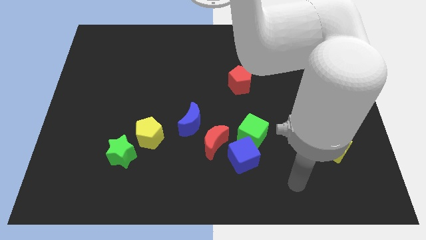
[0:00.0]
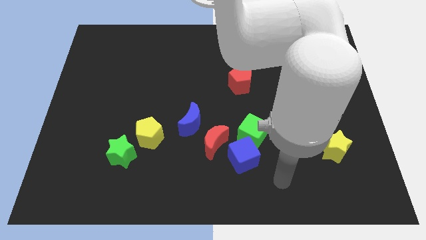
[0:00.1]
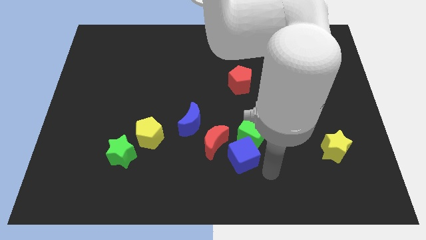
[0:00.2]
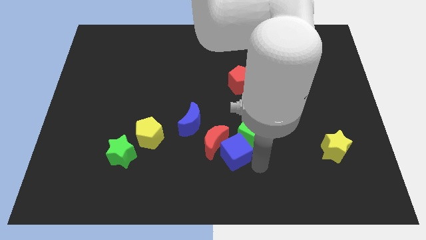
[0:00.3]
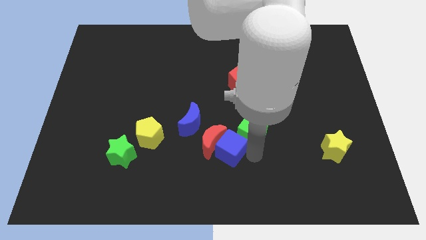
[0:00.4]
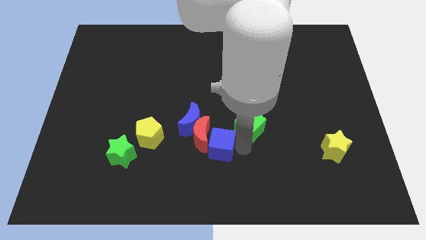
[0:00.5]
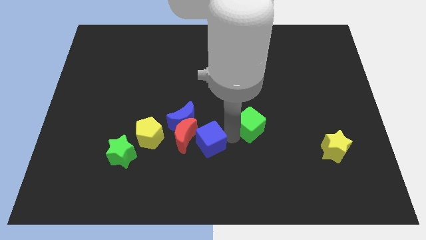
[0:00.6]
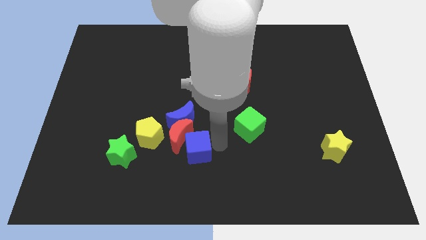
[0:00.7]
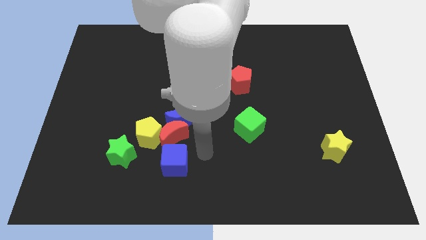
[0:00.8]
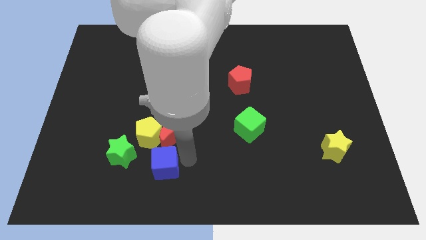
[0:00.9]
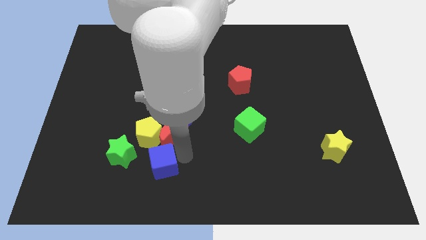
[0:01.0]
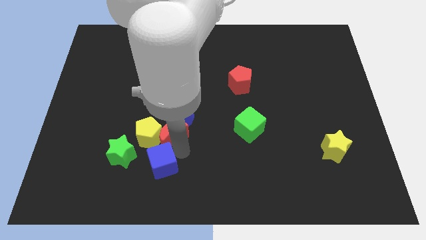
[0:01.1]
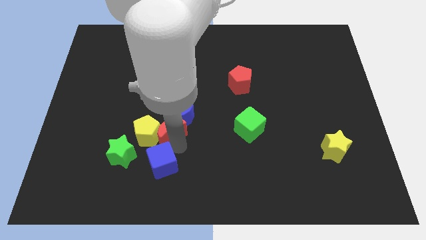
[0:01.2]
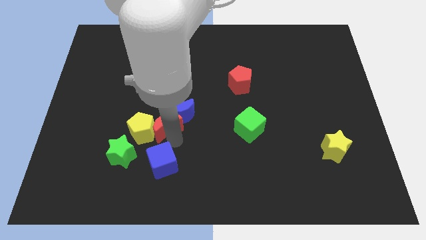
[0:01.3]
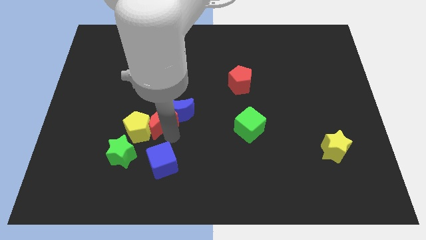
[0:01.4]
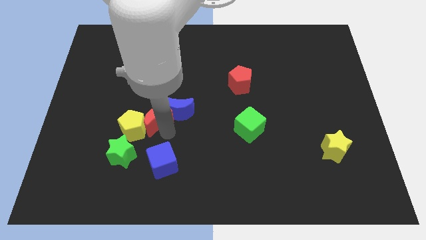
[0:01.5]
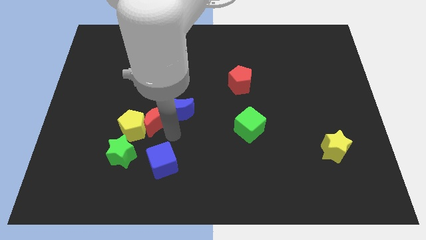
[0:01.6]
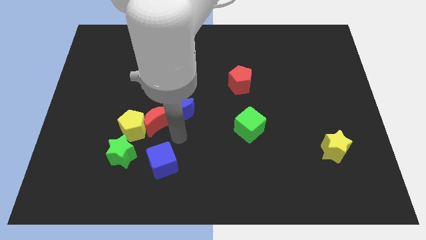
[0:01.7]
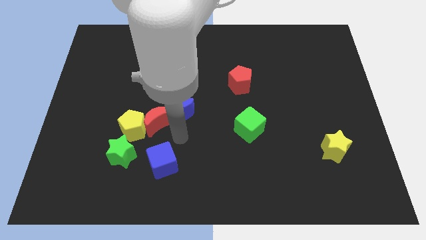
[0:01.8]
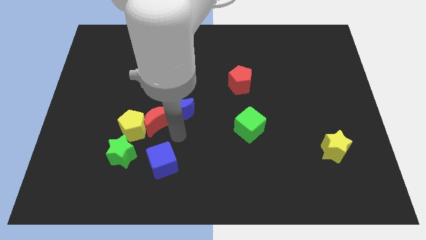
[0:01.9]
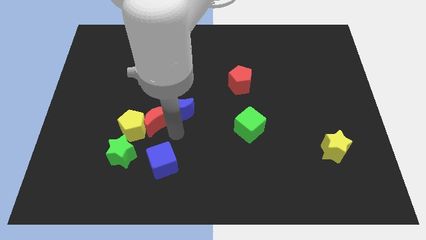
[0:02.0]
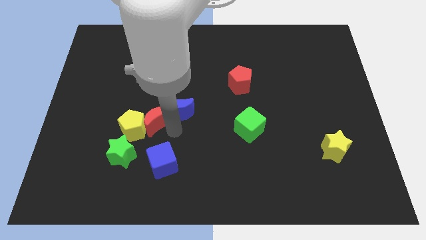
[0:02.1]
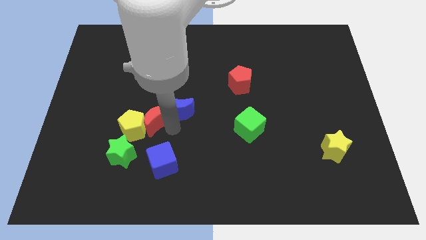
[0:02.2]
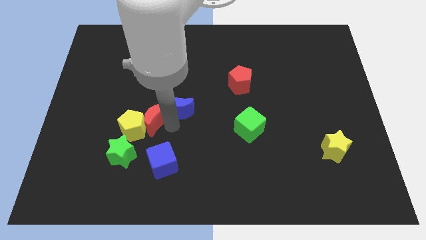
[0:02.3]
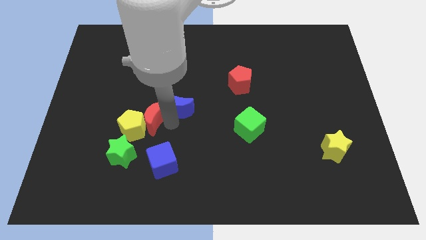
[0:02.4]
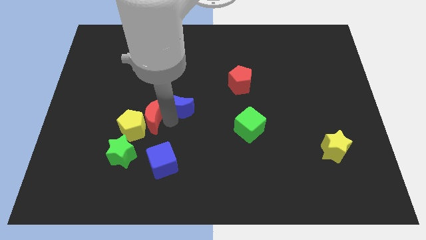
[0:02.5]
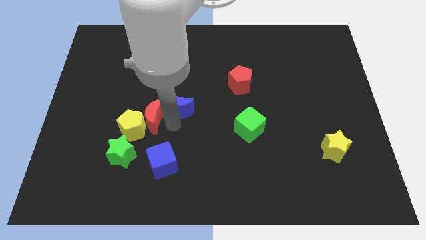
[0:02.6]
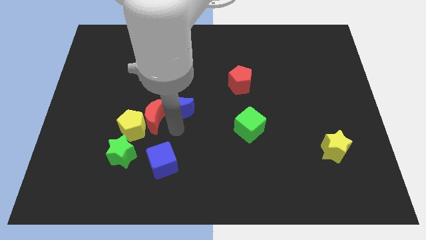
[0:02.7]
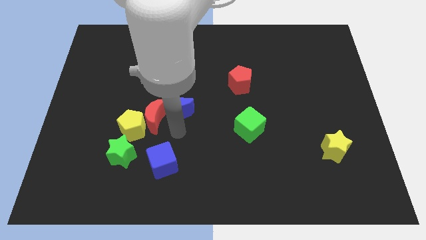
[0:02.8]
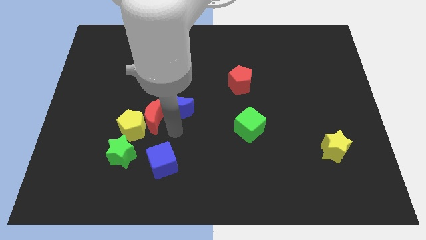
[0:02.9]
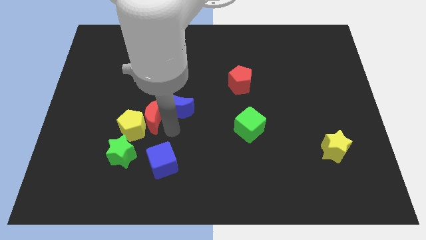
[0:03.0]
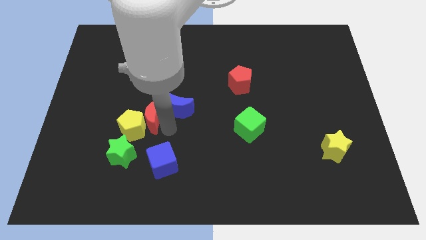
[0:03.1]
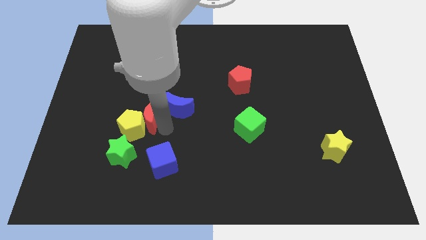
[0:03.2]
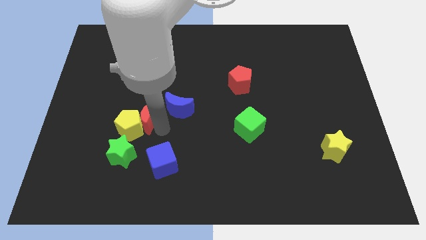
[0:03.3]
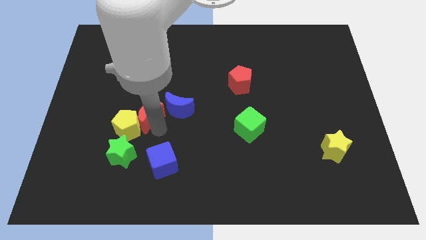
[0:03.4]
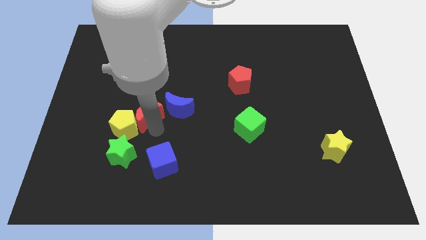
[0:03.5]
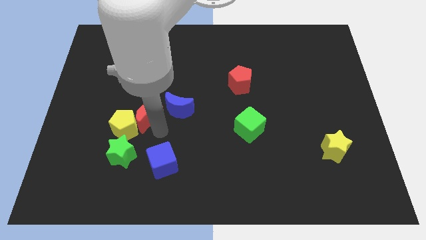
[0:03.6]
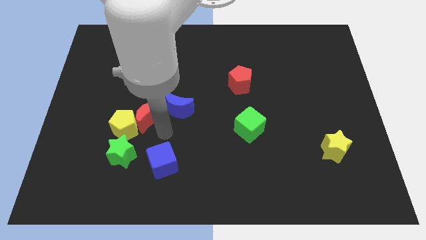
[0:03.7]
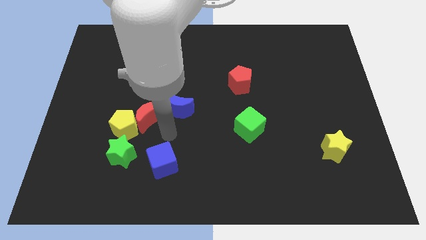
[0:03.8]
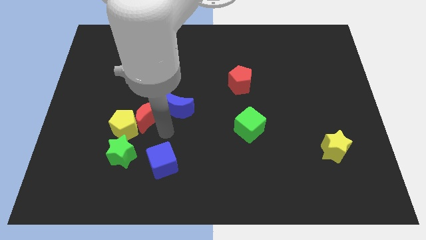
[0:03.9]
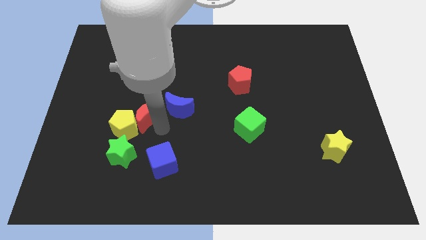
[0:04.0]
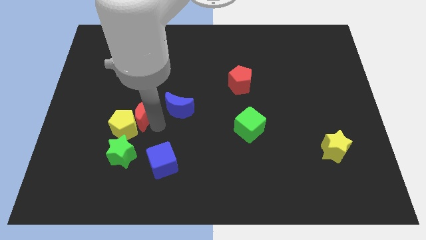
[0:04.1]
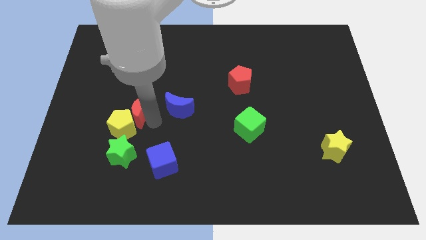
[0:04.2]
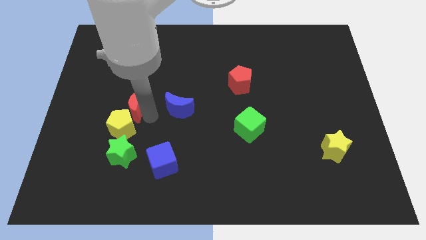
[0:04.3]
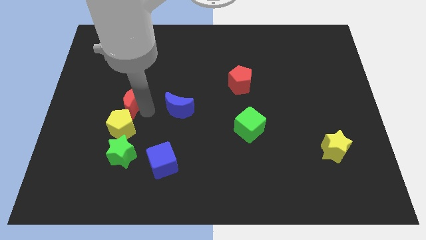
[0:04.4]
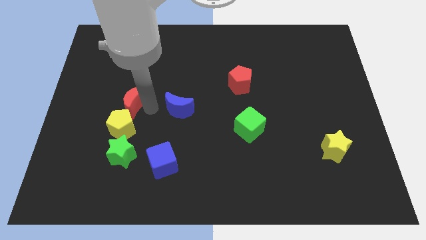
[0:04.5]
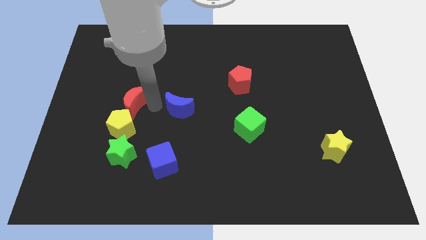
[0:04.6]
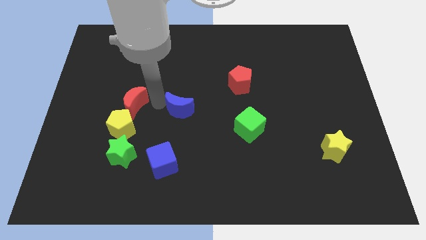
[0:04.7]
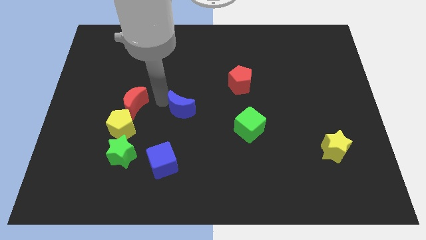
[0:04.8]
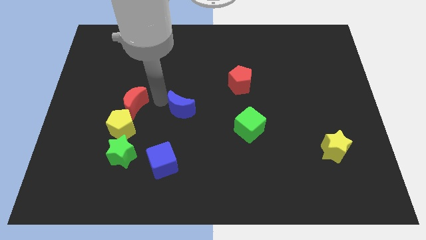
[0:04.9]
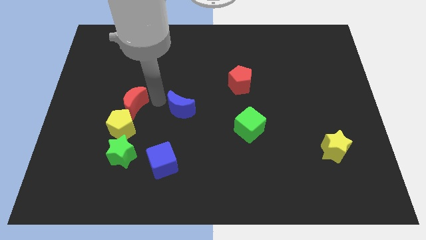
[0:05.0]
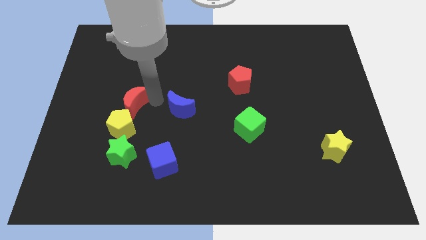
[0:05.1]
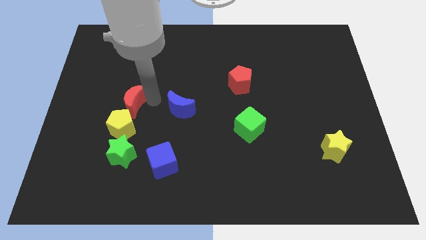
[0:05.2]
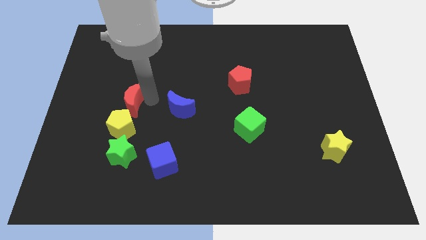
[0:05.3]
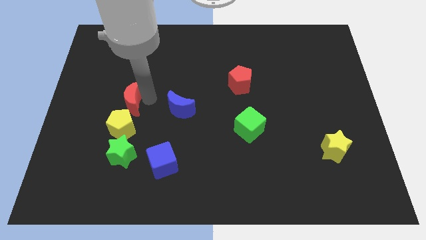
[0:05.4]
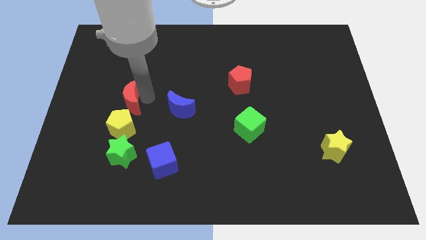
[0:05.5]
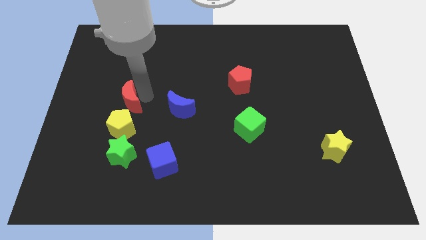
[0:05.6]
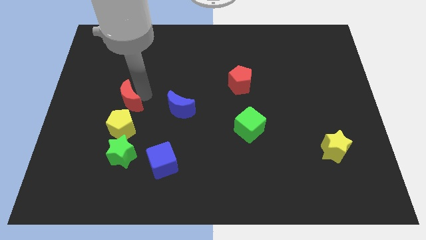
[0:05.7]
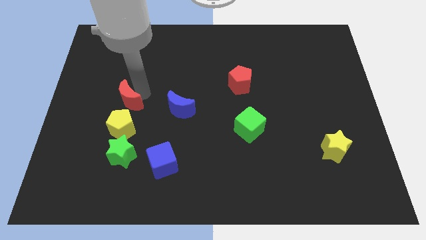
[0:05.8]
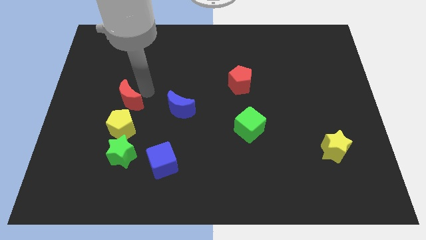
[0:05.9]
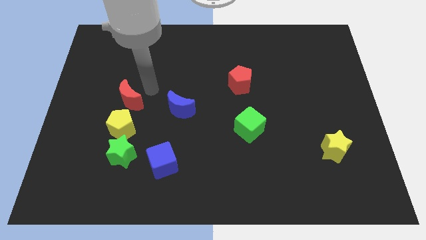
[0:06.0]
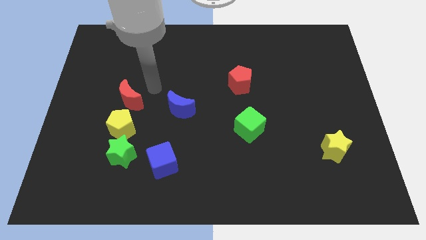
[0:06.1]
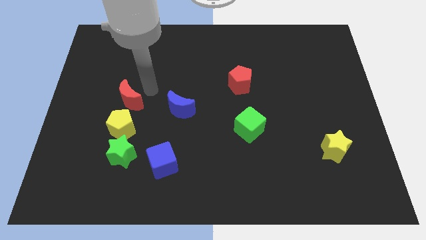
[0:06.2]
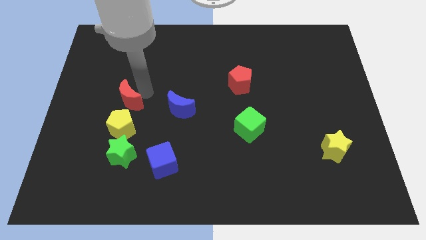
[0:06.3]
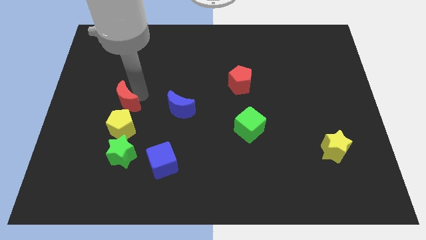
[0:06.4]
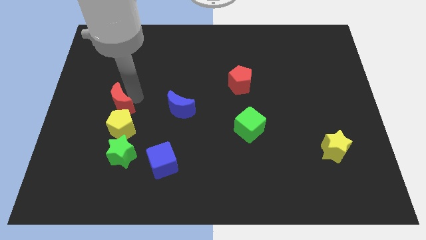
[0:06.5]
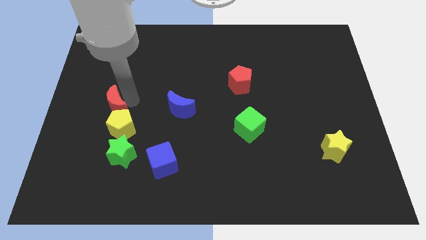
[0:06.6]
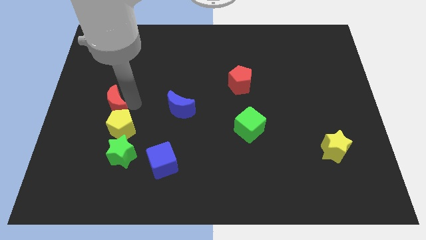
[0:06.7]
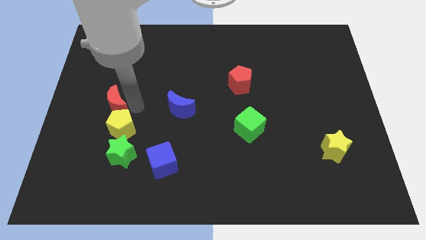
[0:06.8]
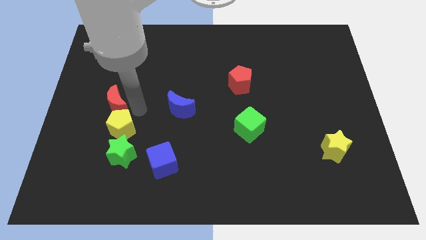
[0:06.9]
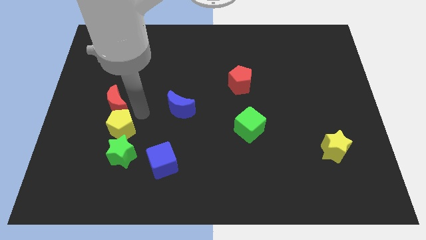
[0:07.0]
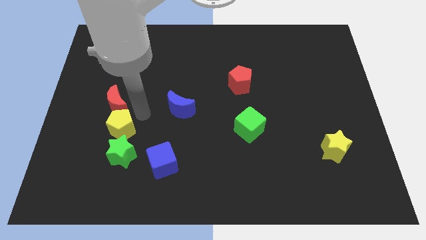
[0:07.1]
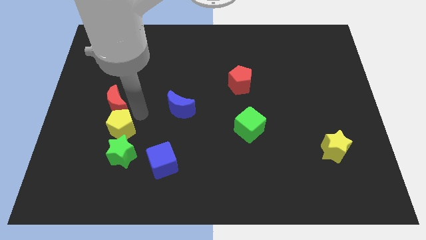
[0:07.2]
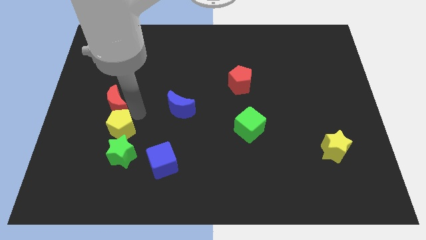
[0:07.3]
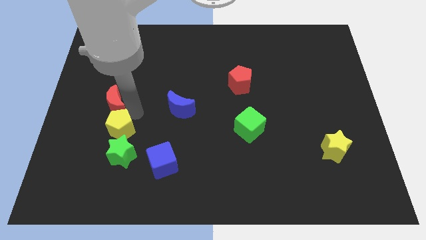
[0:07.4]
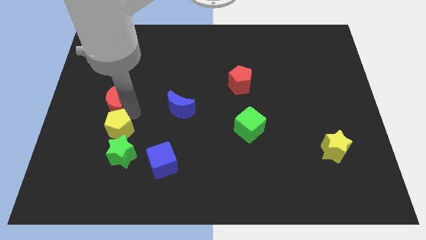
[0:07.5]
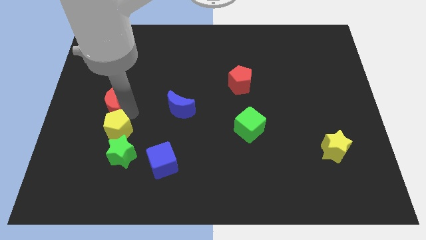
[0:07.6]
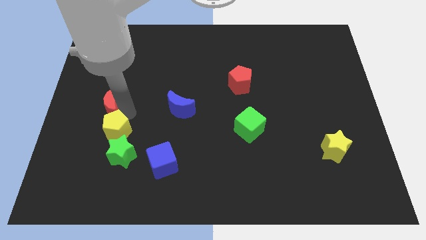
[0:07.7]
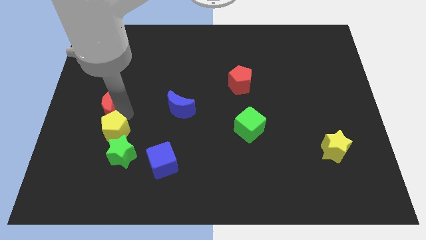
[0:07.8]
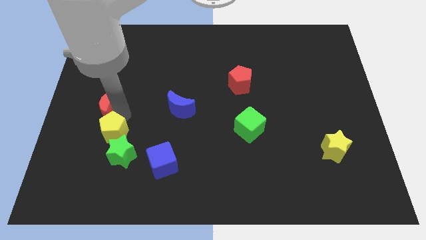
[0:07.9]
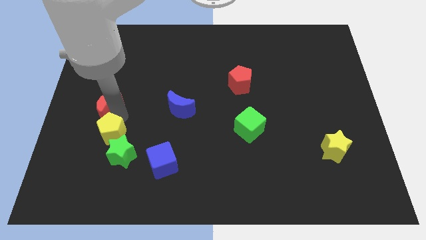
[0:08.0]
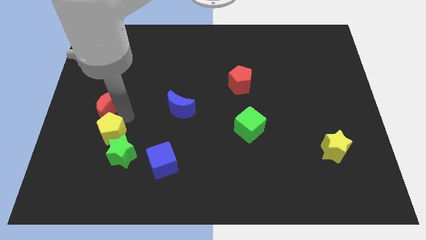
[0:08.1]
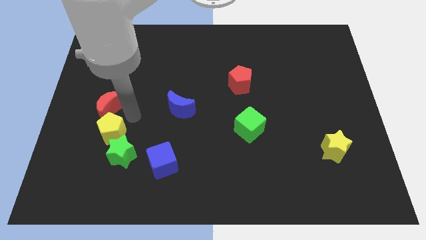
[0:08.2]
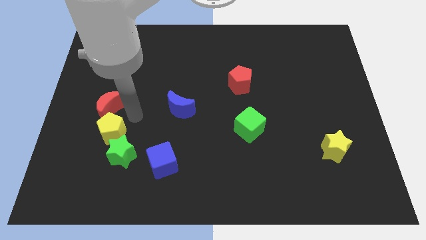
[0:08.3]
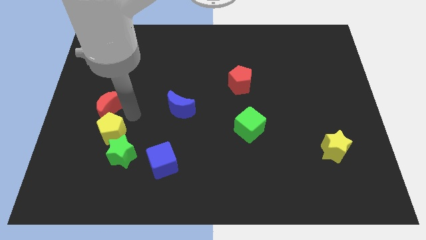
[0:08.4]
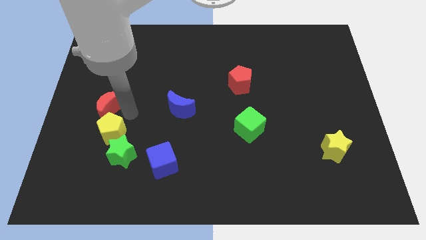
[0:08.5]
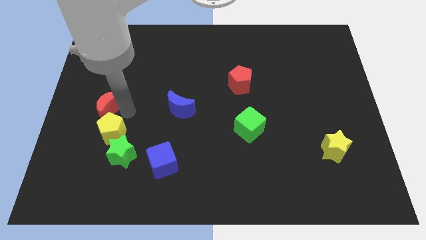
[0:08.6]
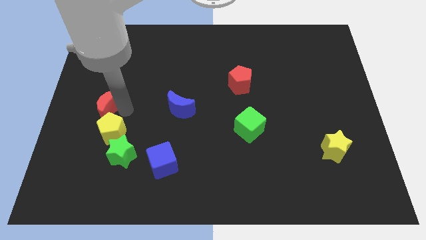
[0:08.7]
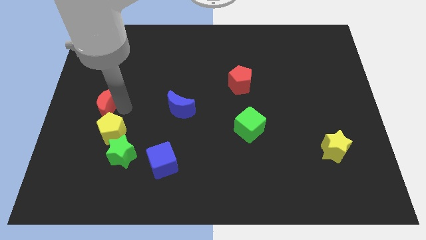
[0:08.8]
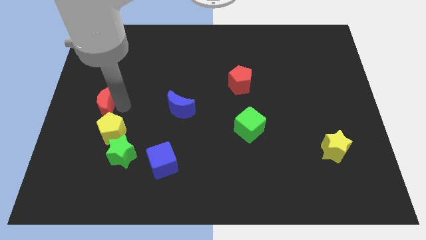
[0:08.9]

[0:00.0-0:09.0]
move the red moon to the left side
